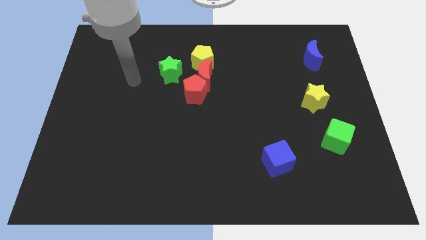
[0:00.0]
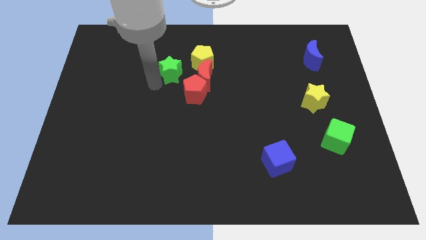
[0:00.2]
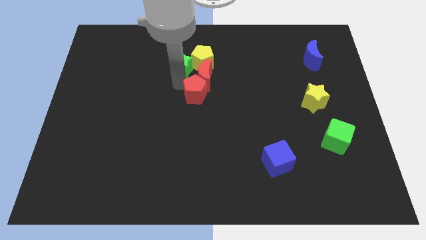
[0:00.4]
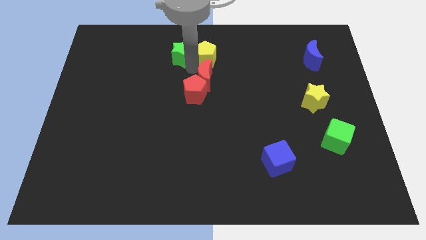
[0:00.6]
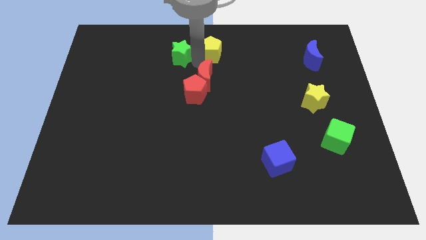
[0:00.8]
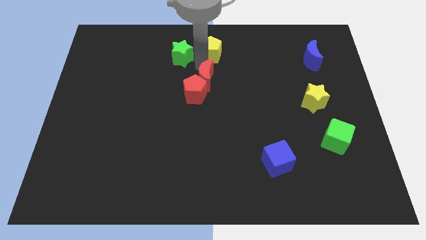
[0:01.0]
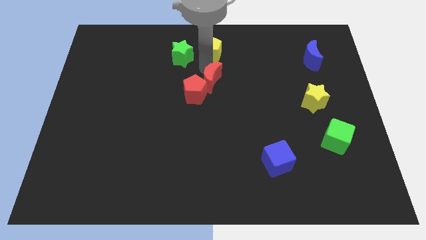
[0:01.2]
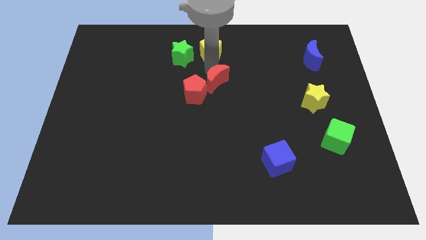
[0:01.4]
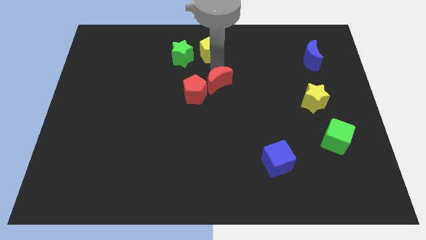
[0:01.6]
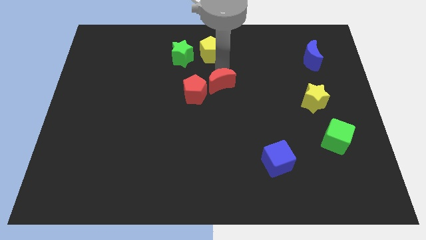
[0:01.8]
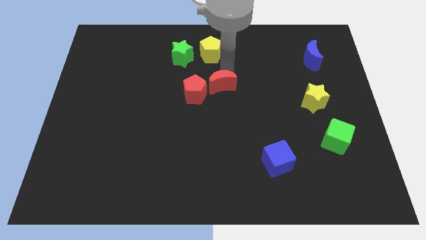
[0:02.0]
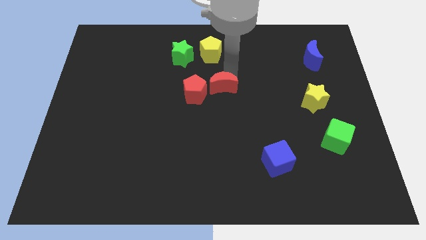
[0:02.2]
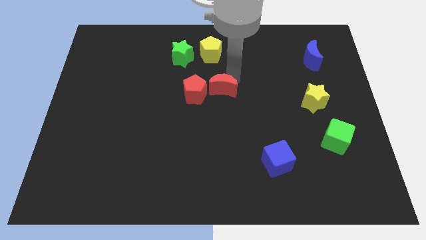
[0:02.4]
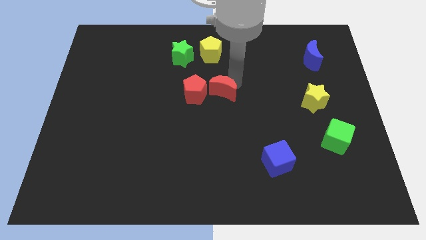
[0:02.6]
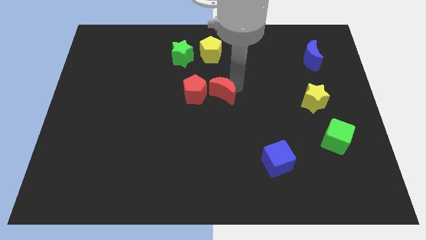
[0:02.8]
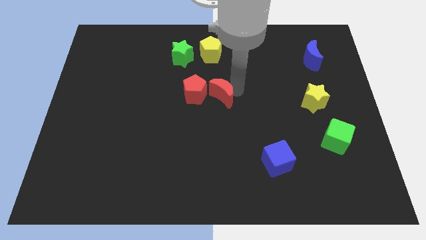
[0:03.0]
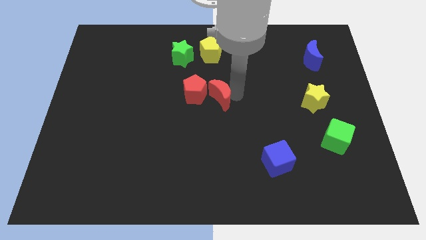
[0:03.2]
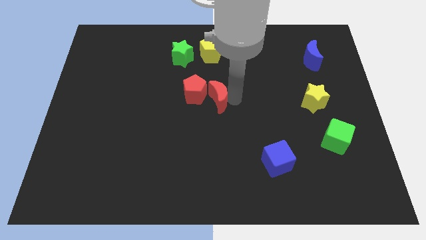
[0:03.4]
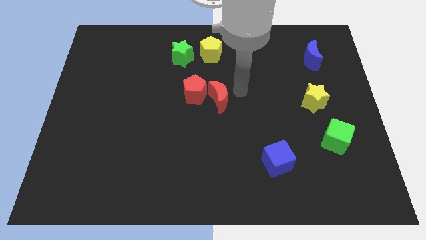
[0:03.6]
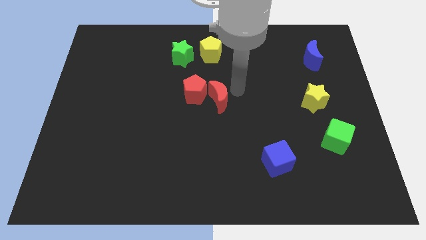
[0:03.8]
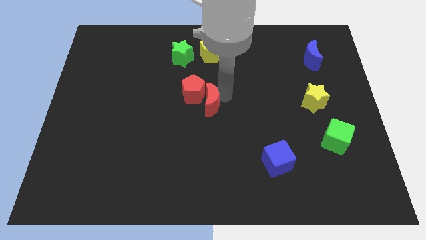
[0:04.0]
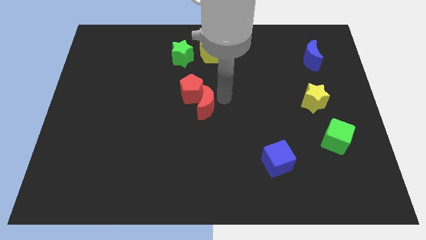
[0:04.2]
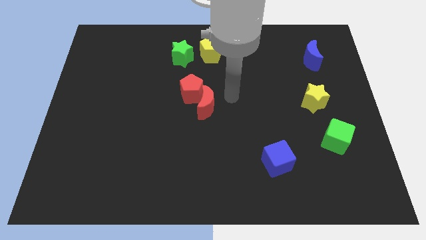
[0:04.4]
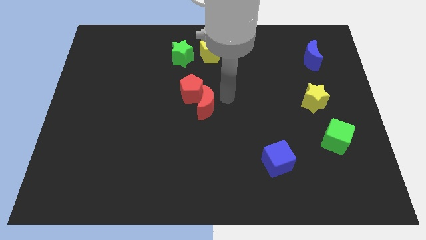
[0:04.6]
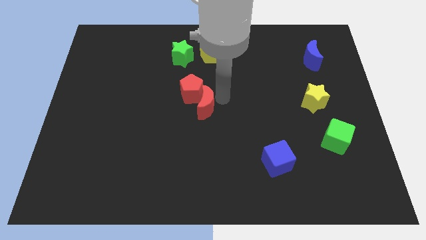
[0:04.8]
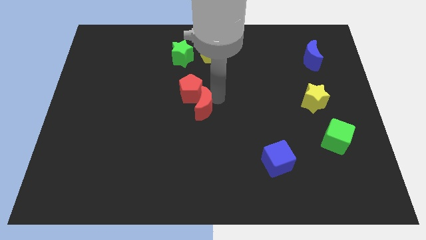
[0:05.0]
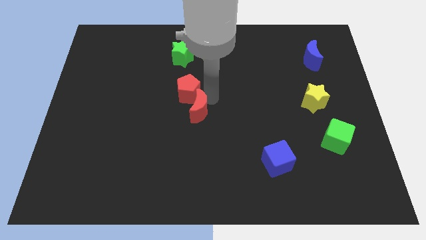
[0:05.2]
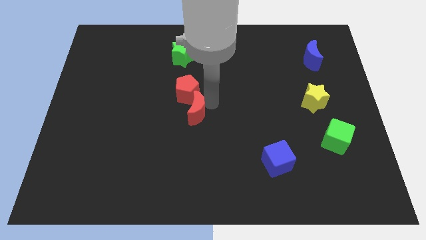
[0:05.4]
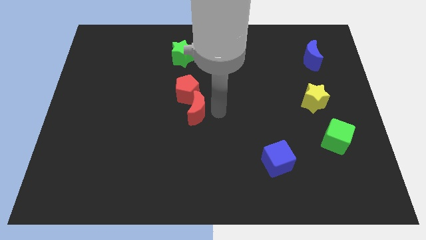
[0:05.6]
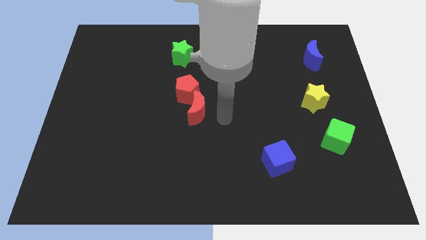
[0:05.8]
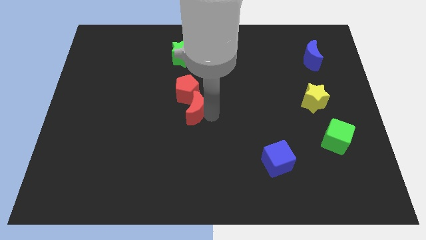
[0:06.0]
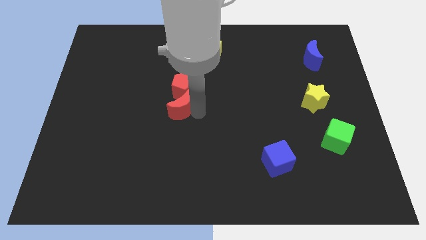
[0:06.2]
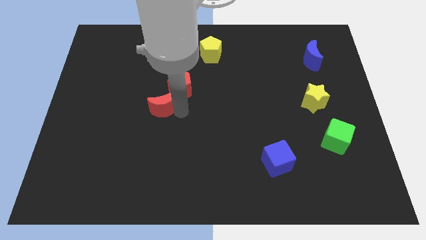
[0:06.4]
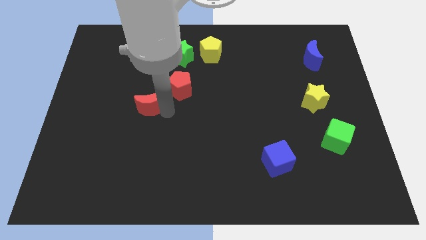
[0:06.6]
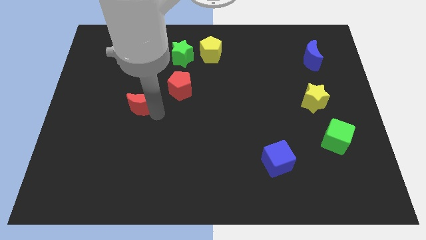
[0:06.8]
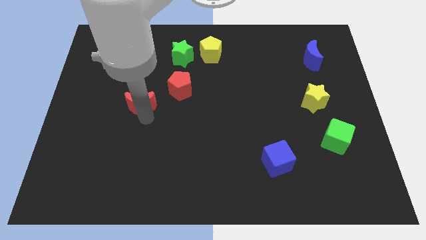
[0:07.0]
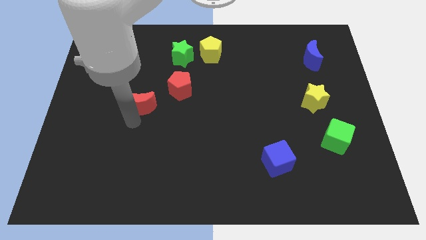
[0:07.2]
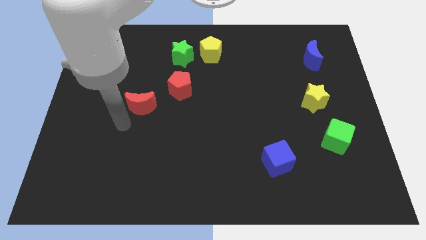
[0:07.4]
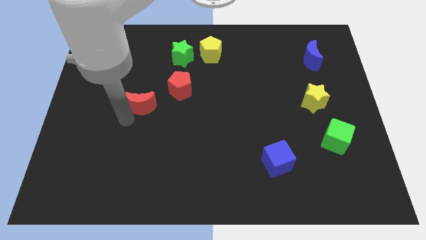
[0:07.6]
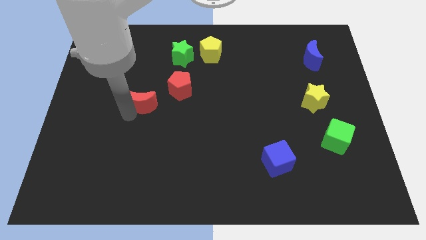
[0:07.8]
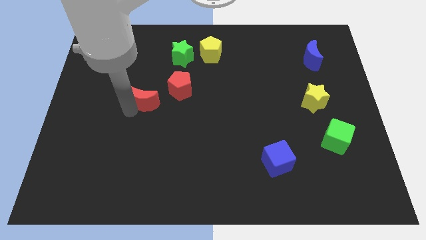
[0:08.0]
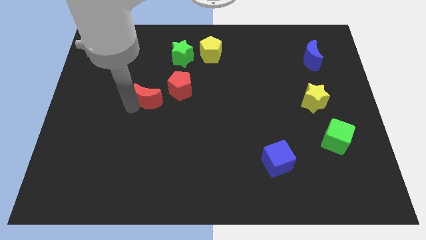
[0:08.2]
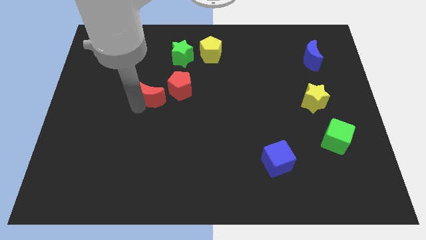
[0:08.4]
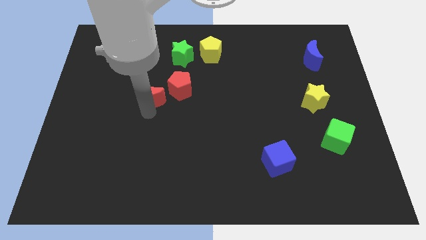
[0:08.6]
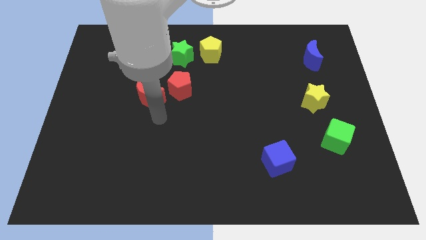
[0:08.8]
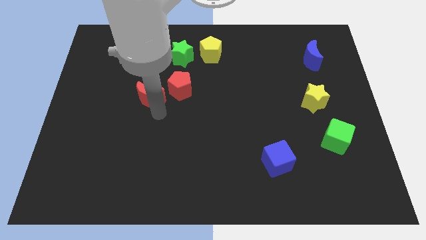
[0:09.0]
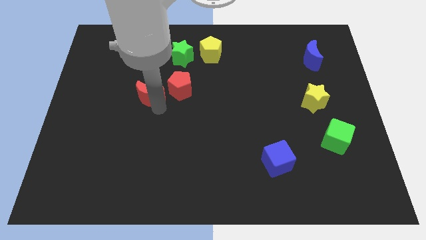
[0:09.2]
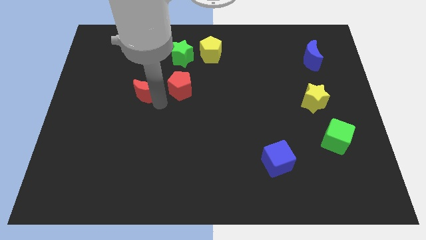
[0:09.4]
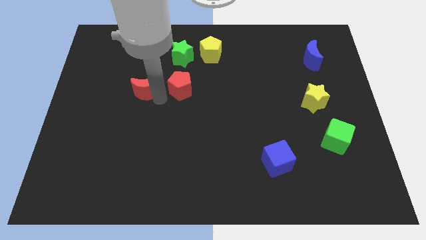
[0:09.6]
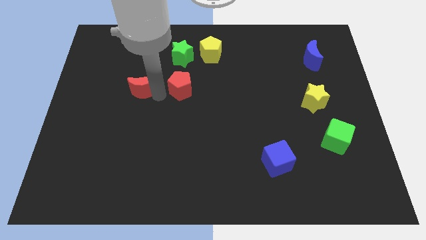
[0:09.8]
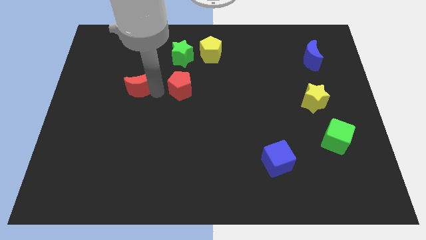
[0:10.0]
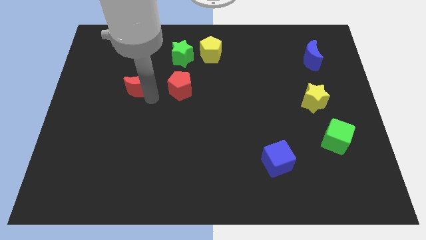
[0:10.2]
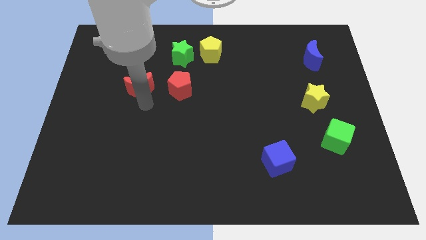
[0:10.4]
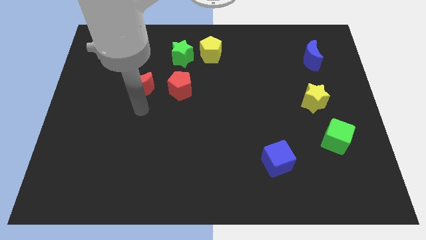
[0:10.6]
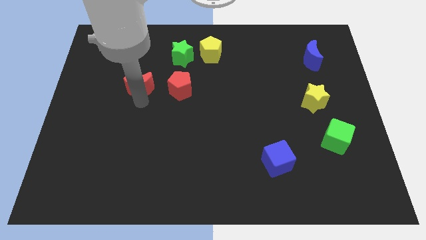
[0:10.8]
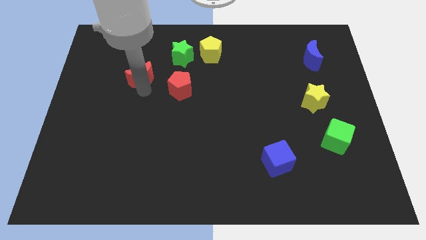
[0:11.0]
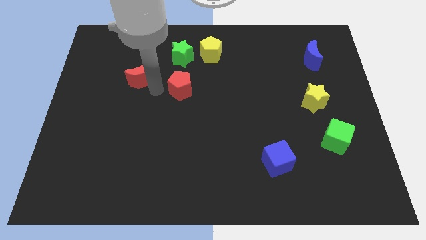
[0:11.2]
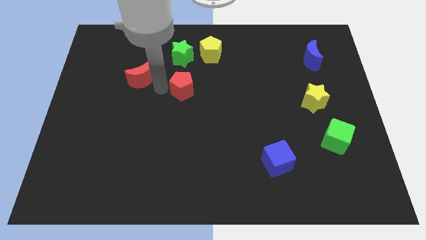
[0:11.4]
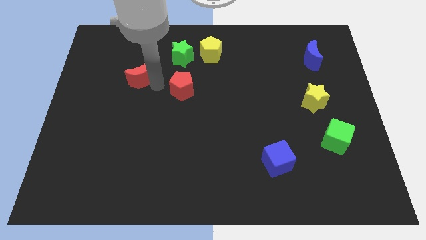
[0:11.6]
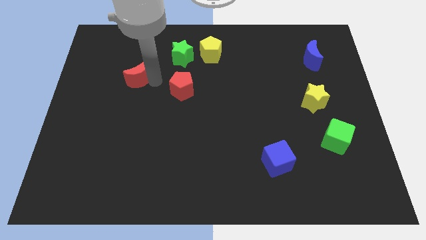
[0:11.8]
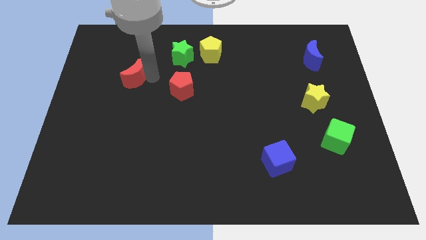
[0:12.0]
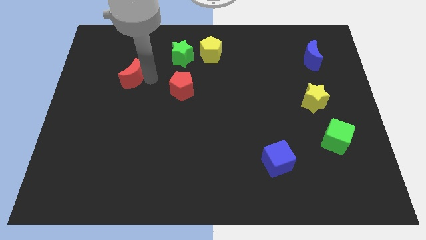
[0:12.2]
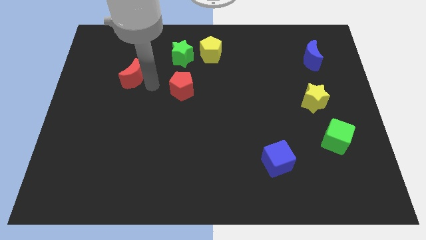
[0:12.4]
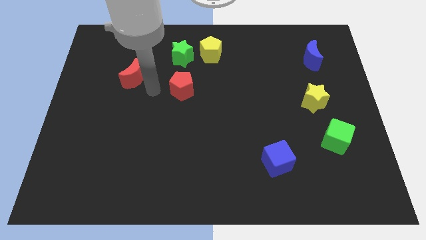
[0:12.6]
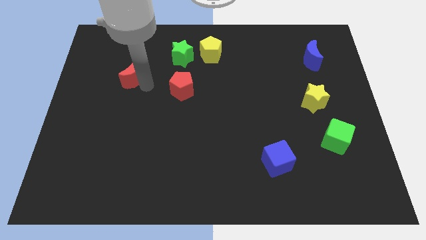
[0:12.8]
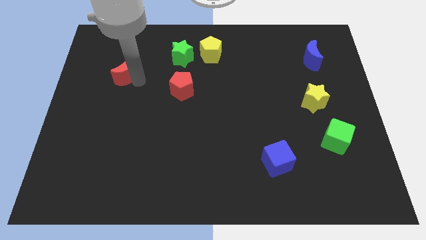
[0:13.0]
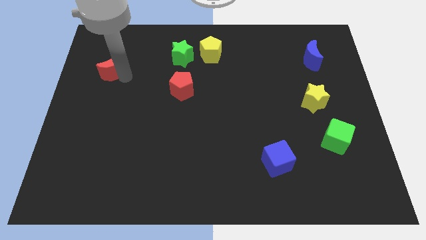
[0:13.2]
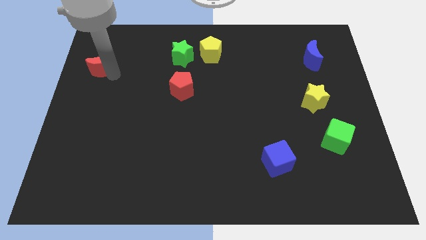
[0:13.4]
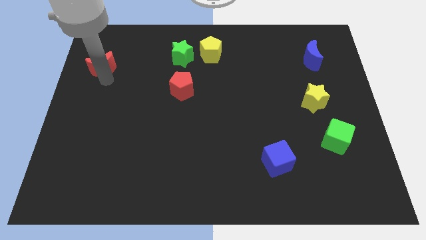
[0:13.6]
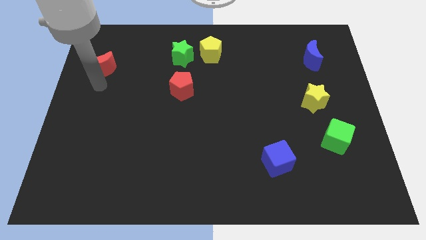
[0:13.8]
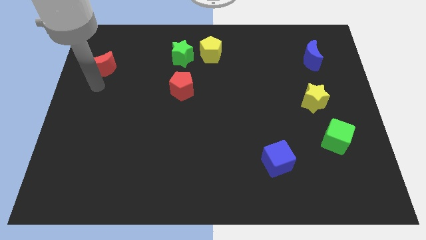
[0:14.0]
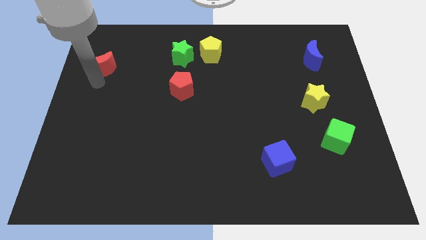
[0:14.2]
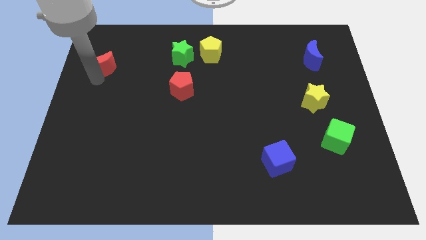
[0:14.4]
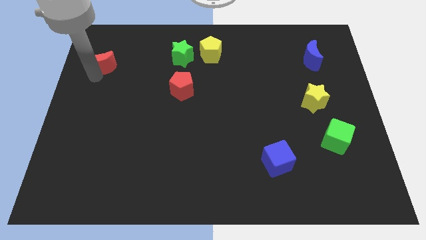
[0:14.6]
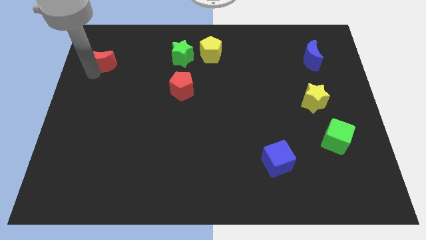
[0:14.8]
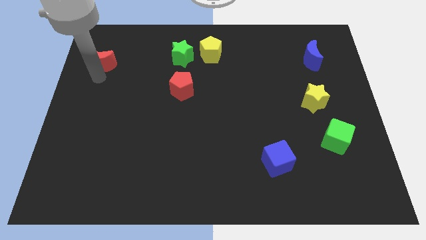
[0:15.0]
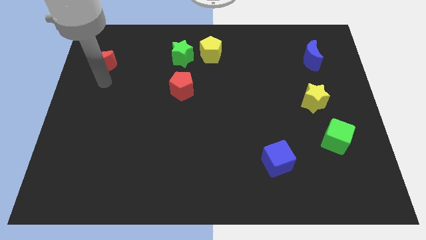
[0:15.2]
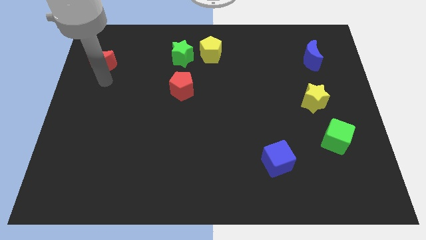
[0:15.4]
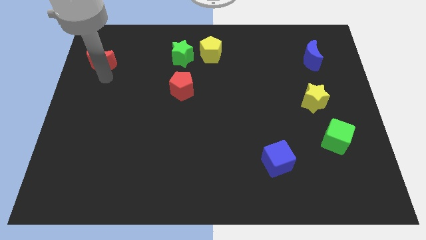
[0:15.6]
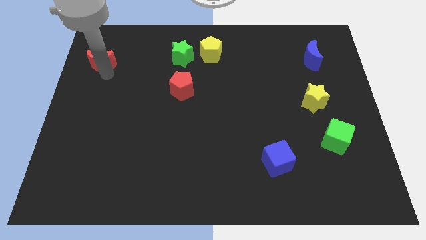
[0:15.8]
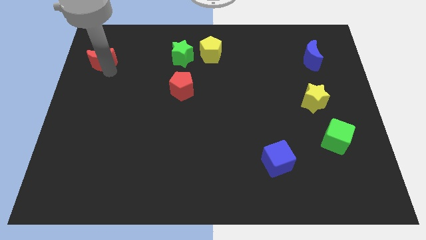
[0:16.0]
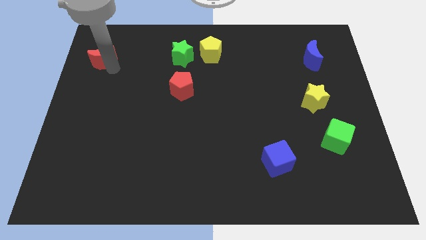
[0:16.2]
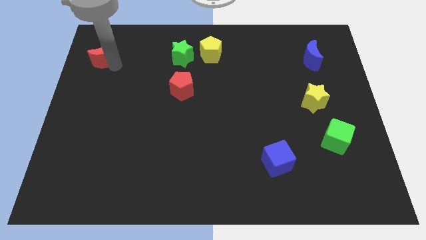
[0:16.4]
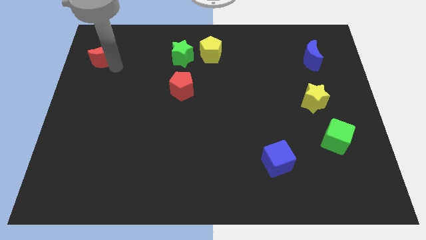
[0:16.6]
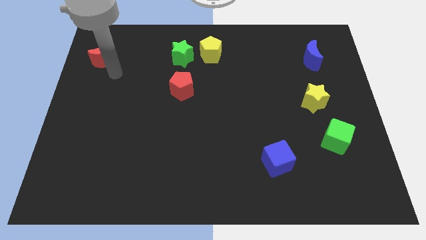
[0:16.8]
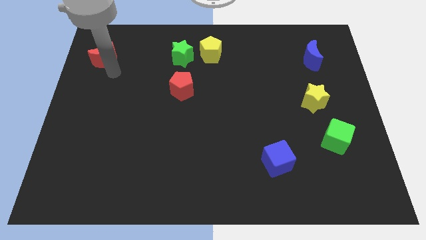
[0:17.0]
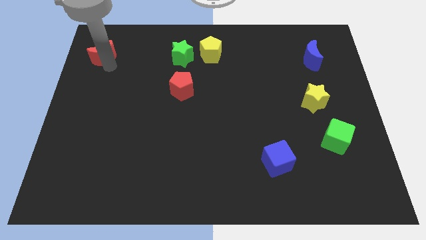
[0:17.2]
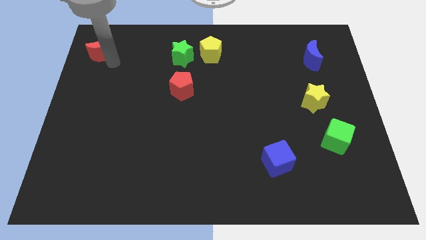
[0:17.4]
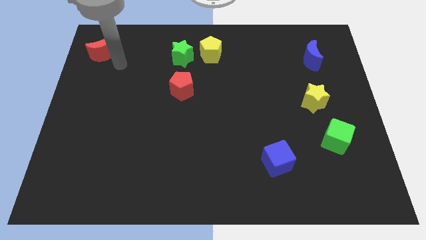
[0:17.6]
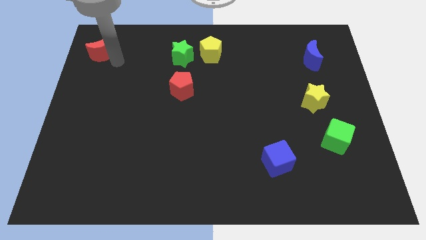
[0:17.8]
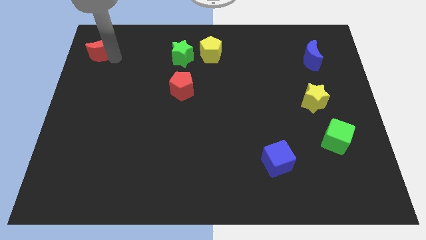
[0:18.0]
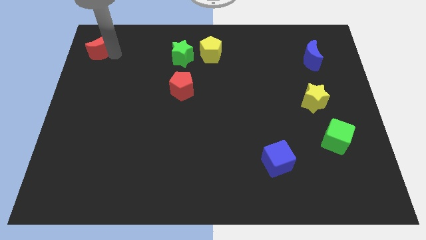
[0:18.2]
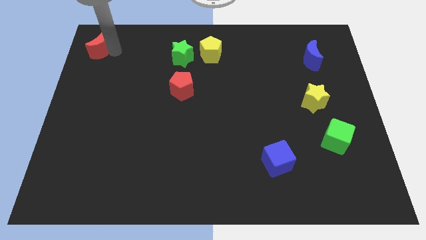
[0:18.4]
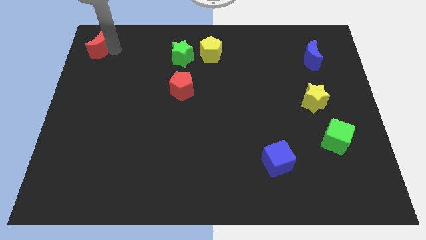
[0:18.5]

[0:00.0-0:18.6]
put the red moon to the upper left corner
